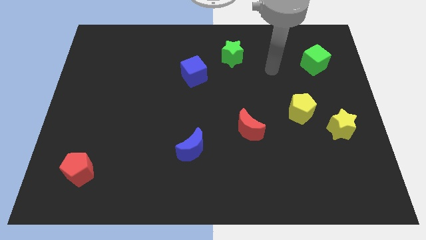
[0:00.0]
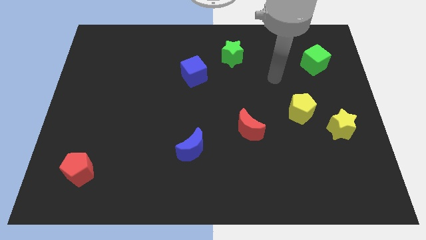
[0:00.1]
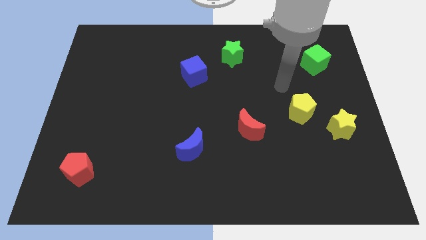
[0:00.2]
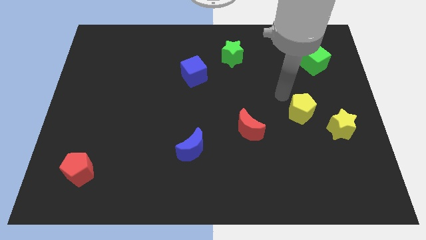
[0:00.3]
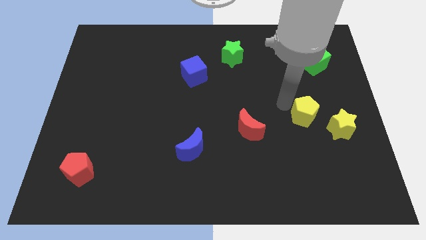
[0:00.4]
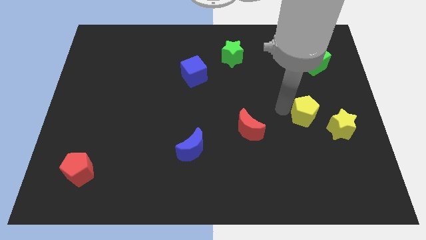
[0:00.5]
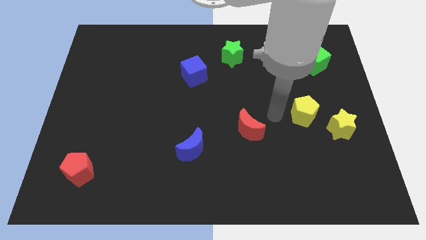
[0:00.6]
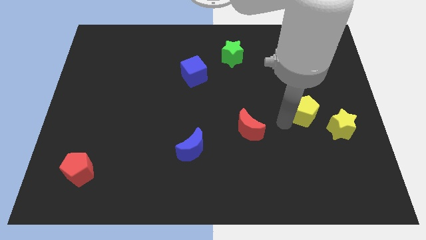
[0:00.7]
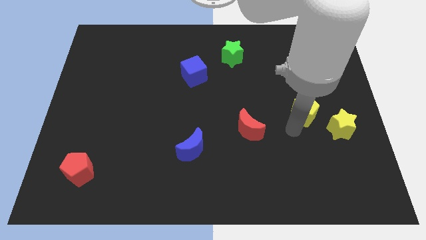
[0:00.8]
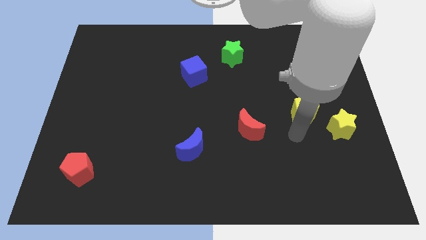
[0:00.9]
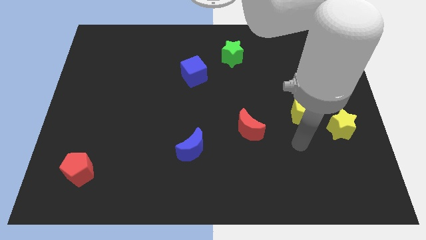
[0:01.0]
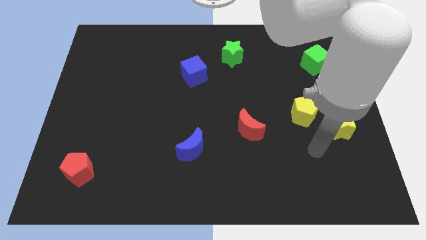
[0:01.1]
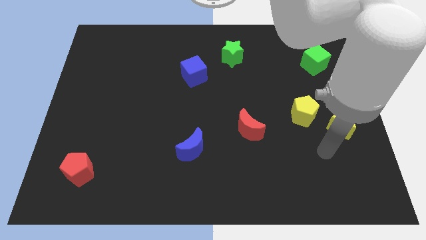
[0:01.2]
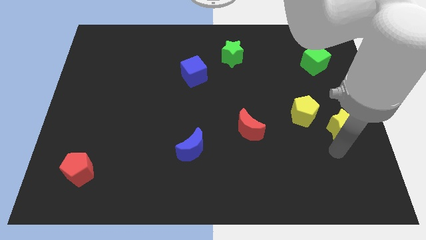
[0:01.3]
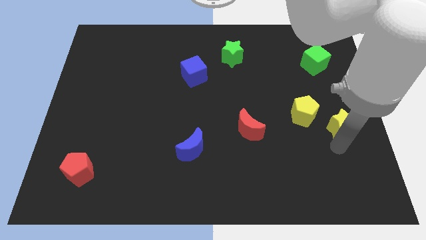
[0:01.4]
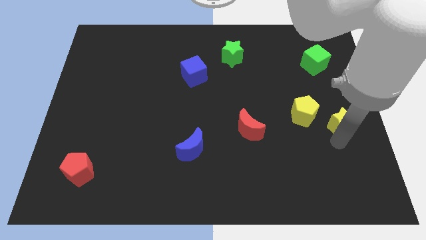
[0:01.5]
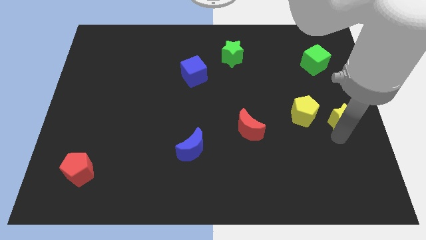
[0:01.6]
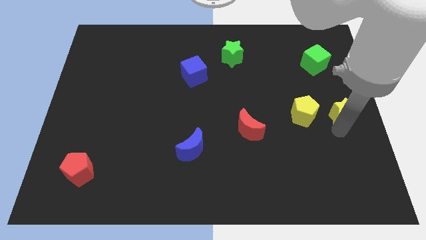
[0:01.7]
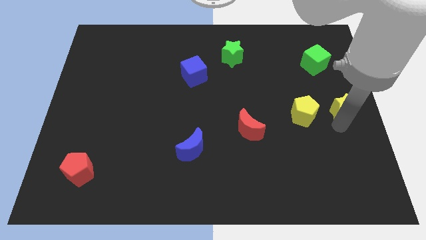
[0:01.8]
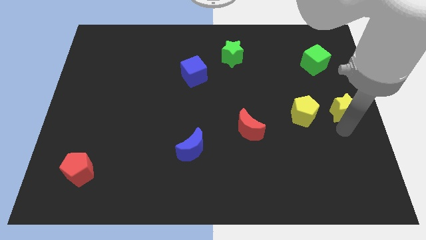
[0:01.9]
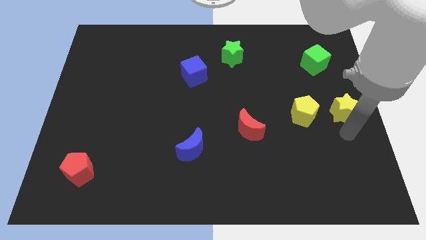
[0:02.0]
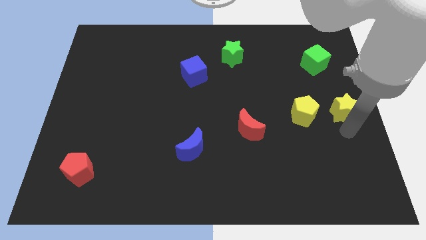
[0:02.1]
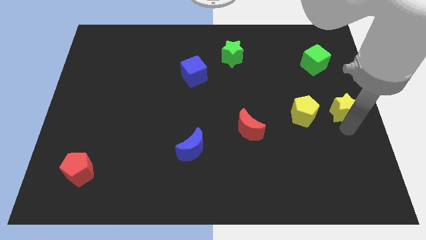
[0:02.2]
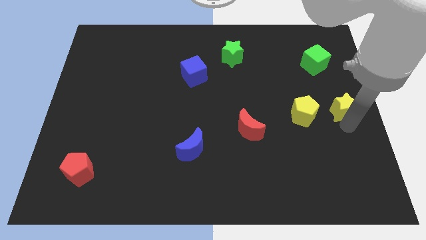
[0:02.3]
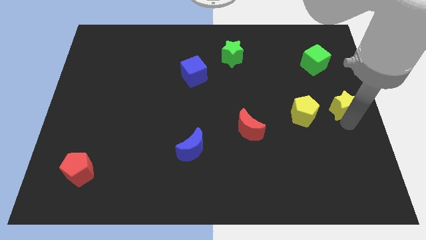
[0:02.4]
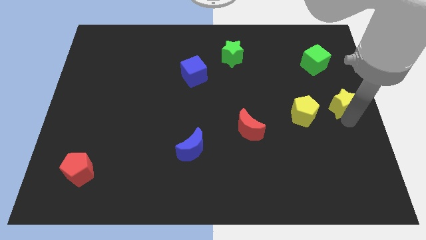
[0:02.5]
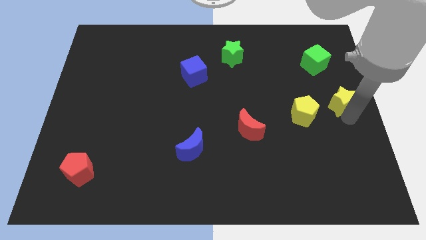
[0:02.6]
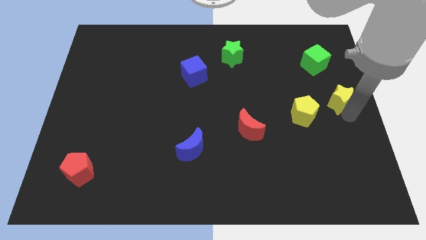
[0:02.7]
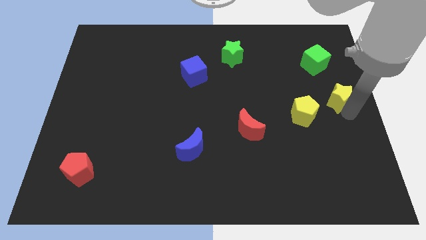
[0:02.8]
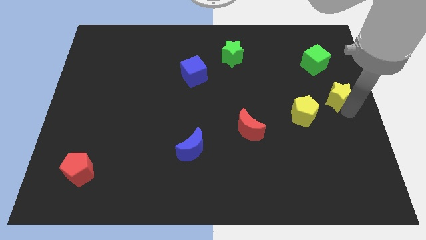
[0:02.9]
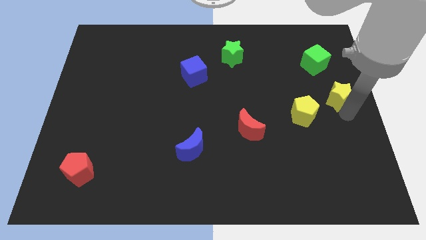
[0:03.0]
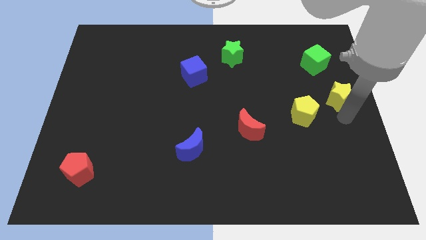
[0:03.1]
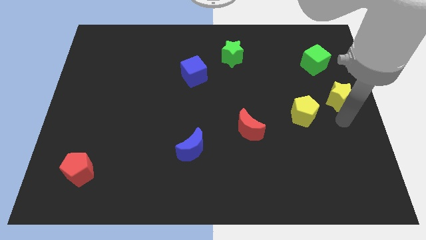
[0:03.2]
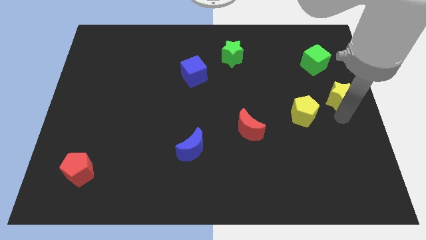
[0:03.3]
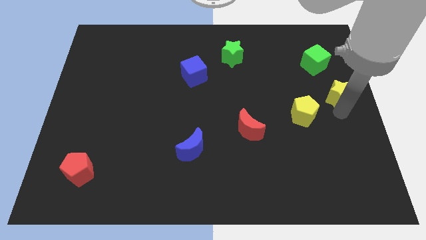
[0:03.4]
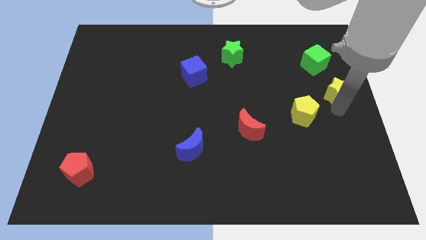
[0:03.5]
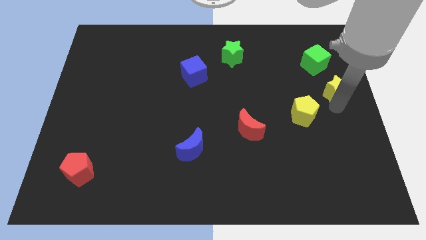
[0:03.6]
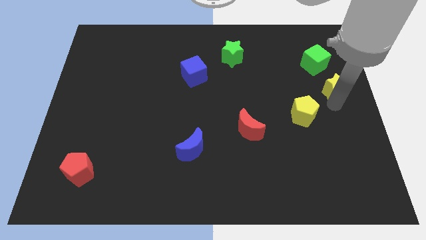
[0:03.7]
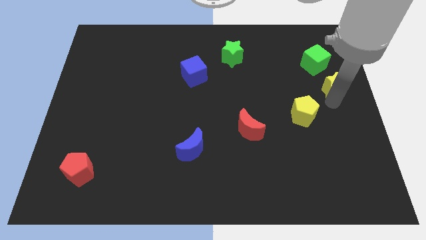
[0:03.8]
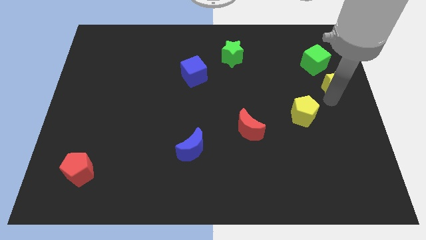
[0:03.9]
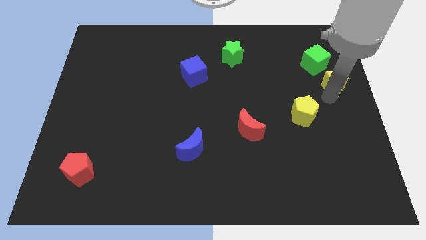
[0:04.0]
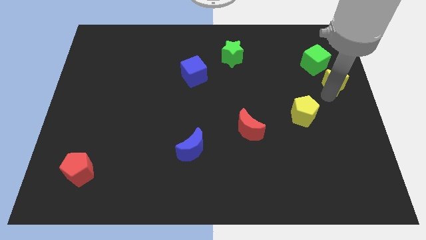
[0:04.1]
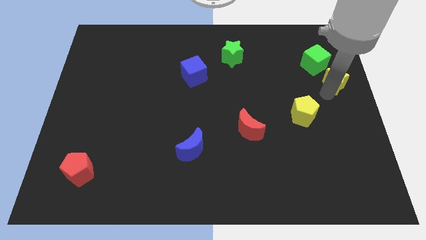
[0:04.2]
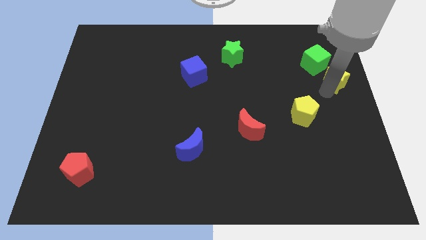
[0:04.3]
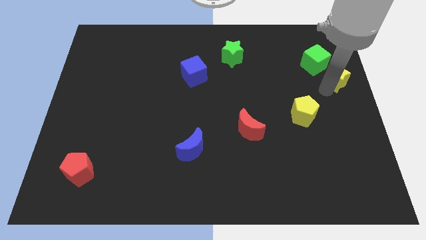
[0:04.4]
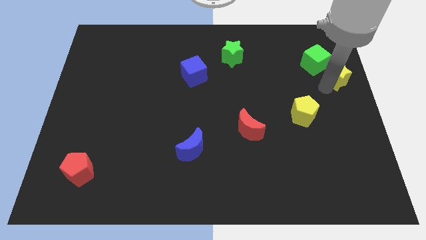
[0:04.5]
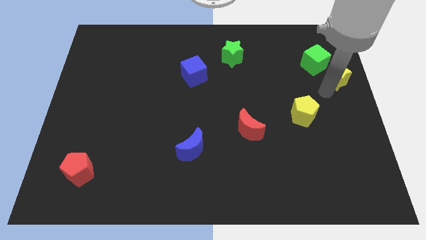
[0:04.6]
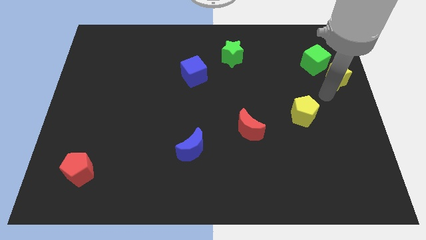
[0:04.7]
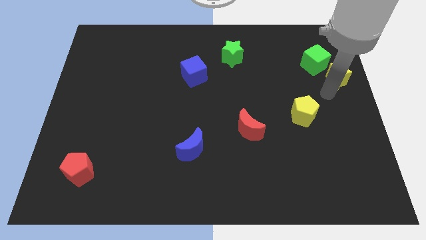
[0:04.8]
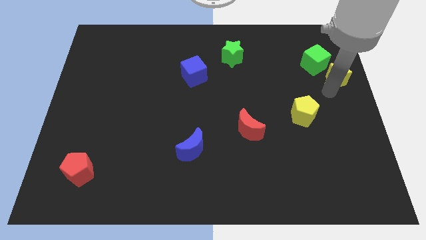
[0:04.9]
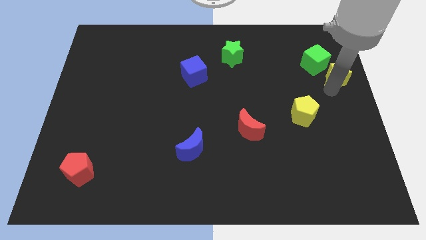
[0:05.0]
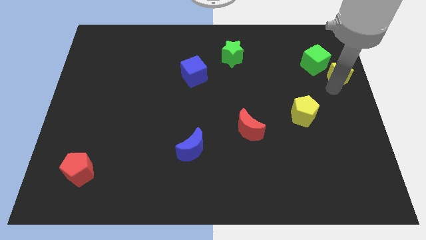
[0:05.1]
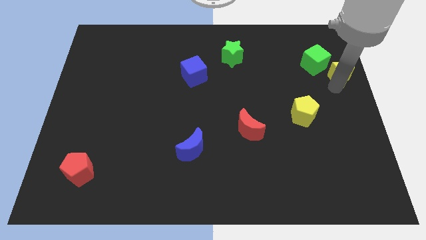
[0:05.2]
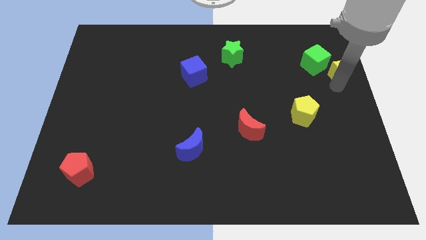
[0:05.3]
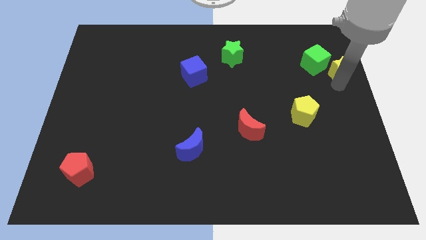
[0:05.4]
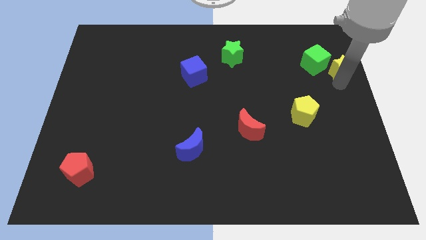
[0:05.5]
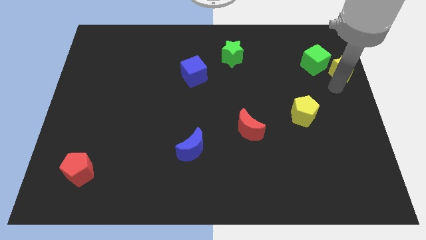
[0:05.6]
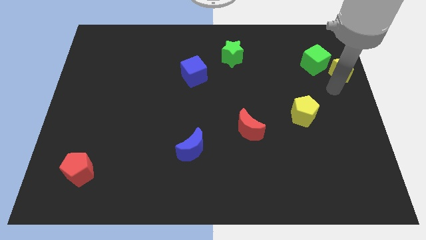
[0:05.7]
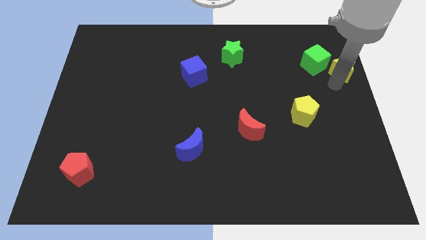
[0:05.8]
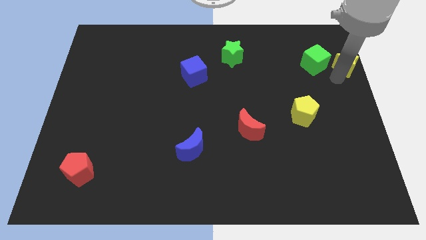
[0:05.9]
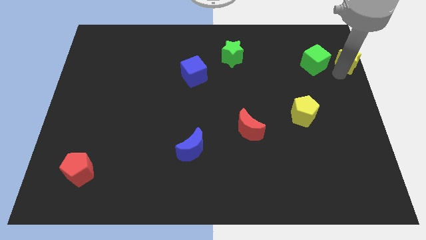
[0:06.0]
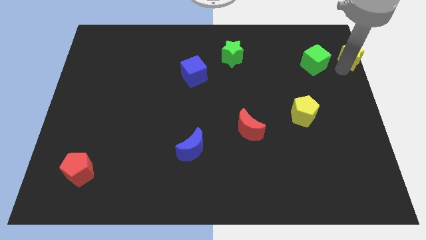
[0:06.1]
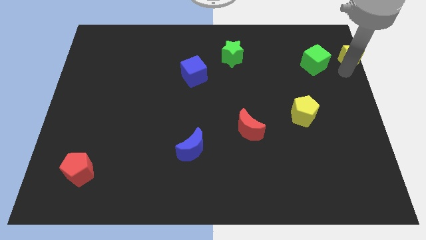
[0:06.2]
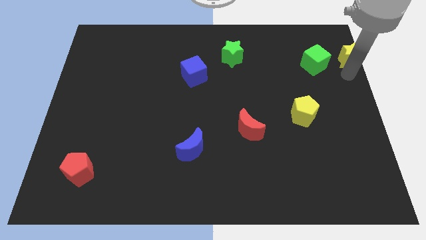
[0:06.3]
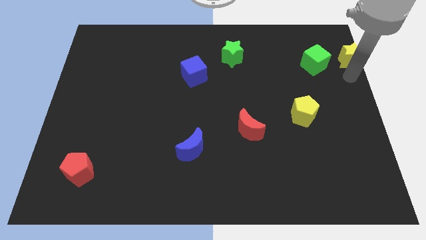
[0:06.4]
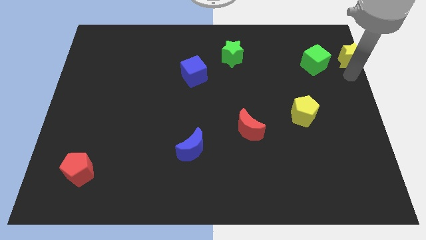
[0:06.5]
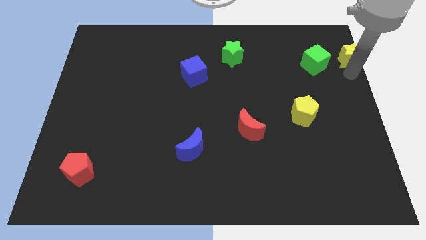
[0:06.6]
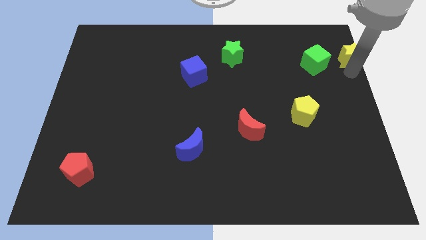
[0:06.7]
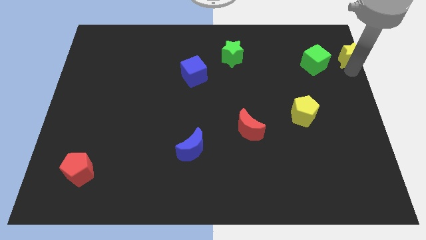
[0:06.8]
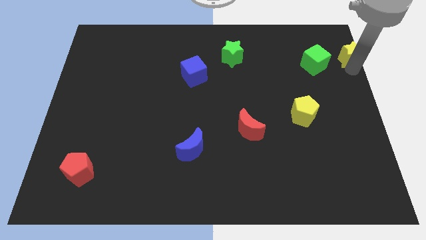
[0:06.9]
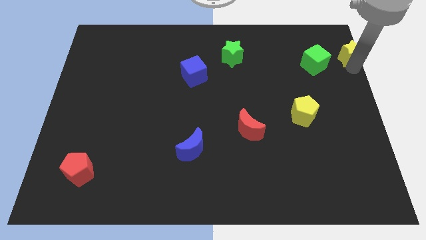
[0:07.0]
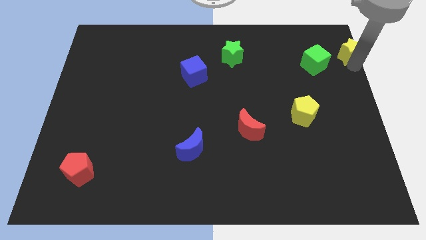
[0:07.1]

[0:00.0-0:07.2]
put the yellow star to the upper right corner

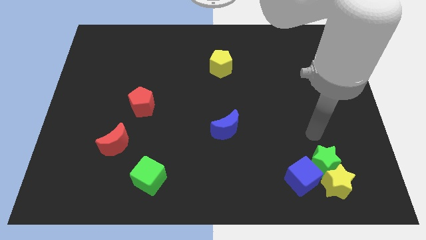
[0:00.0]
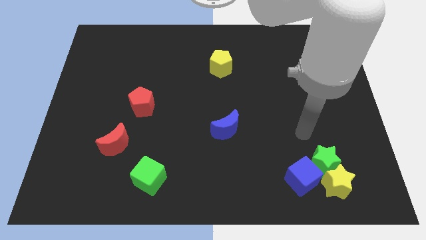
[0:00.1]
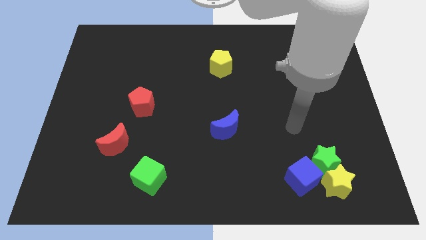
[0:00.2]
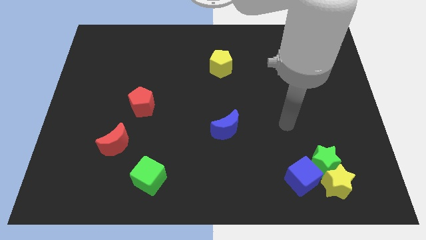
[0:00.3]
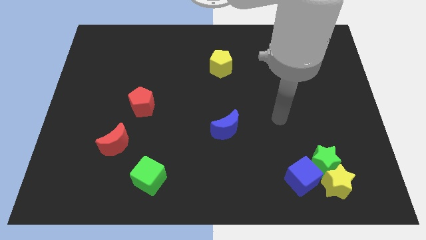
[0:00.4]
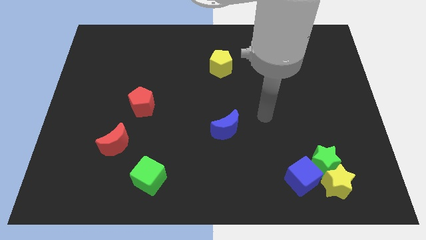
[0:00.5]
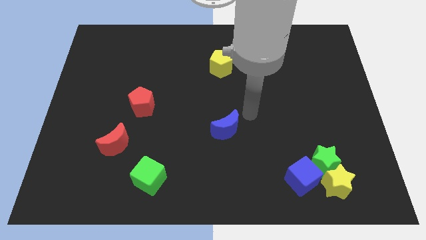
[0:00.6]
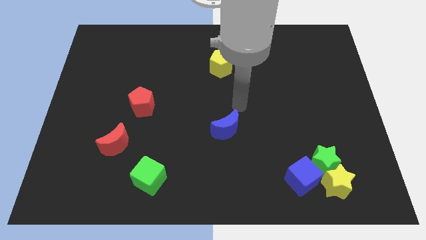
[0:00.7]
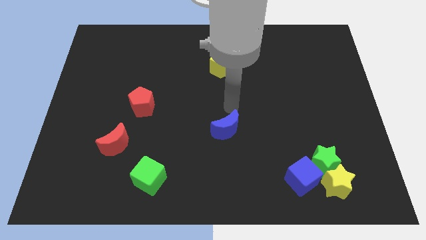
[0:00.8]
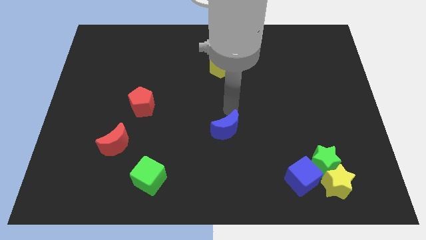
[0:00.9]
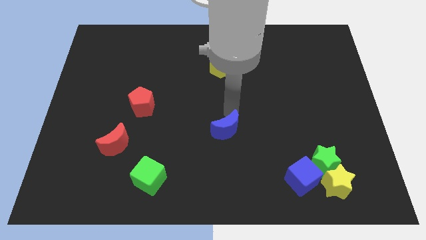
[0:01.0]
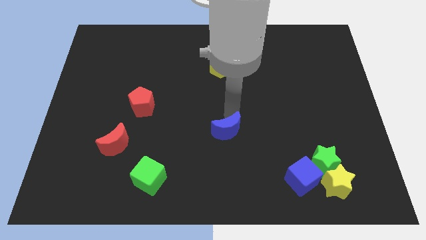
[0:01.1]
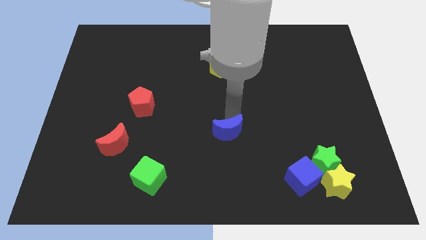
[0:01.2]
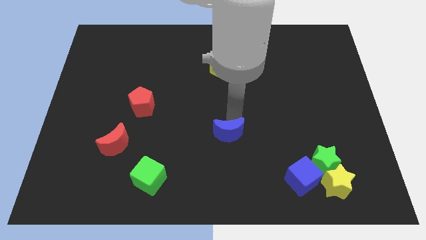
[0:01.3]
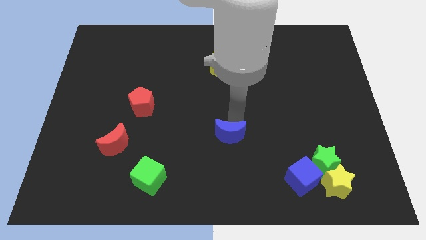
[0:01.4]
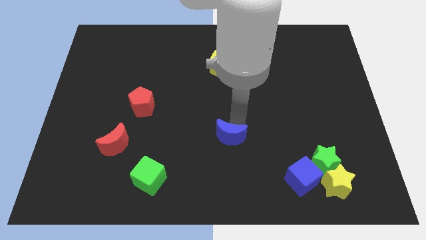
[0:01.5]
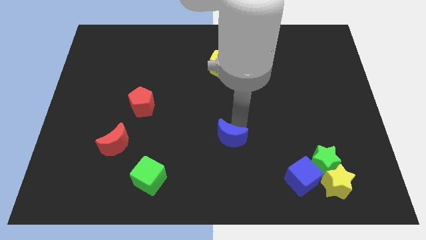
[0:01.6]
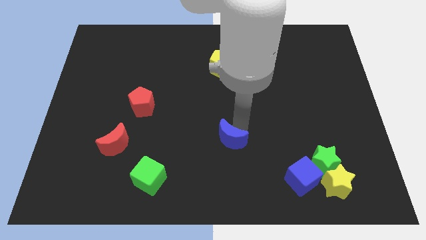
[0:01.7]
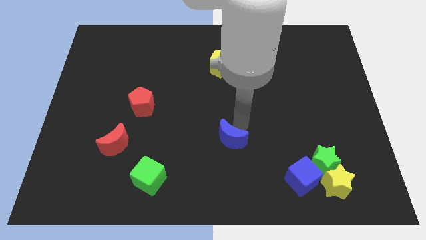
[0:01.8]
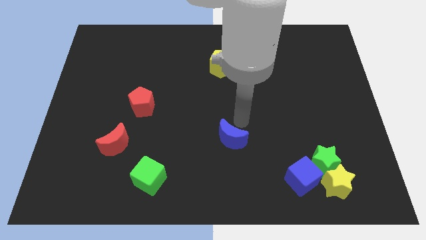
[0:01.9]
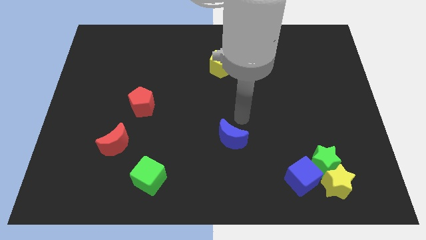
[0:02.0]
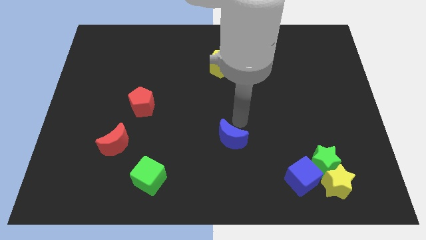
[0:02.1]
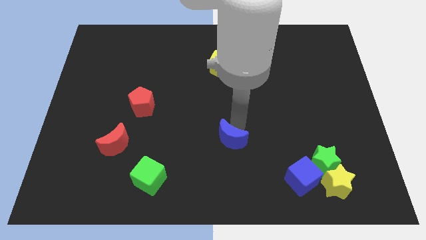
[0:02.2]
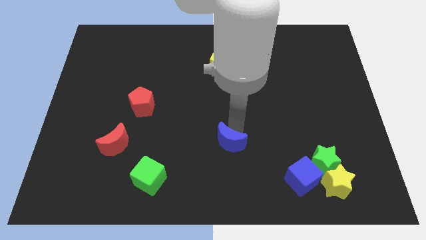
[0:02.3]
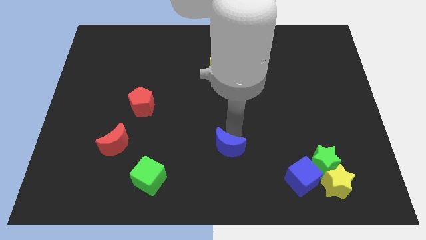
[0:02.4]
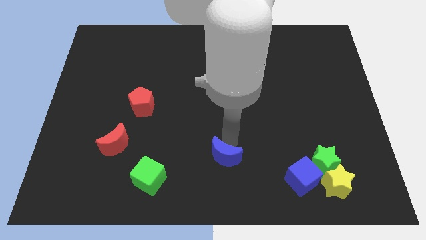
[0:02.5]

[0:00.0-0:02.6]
put the blue moon to the bottom side
